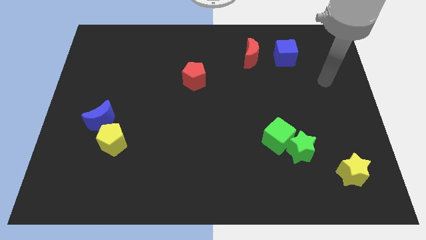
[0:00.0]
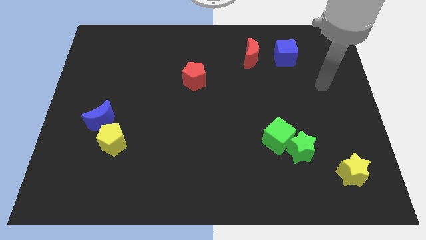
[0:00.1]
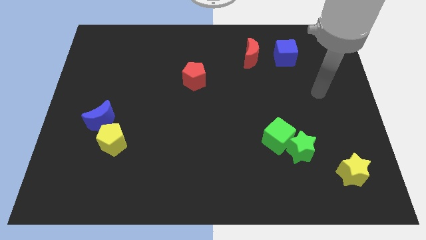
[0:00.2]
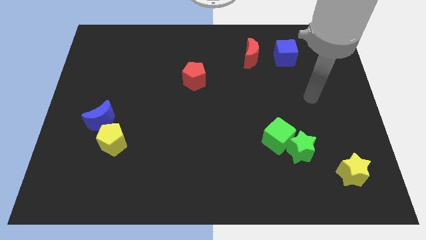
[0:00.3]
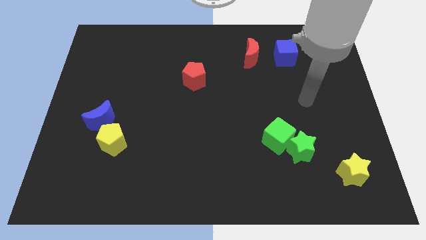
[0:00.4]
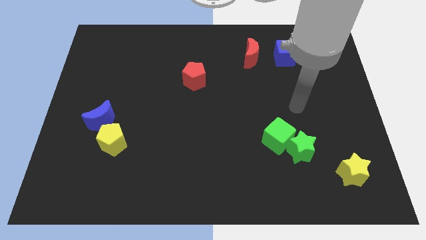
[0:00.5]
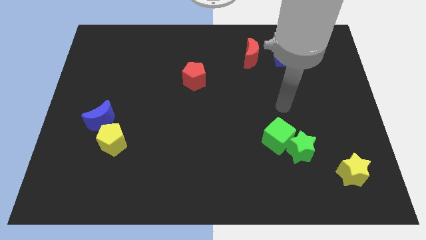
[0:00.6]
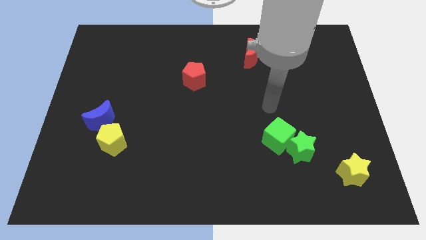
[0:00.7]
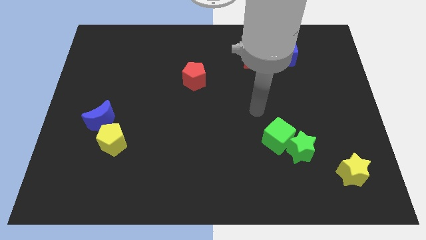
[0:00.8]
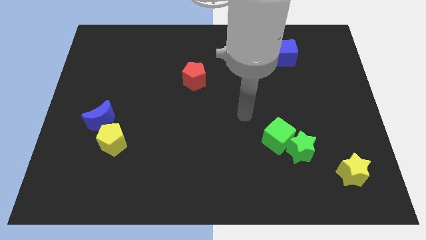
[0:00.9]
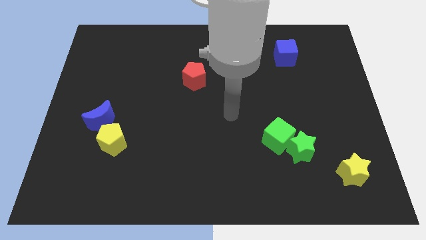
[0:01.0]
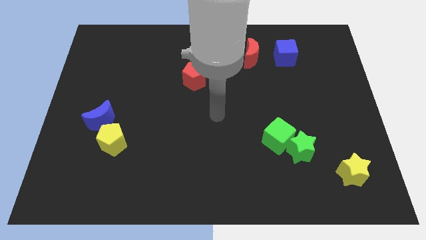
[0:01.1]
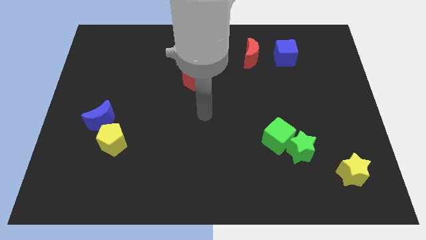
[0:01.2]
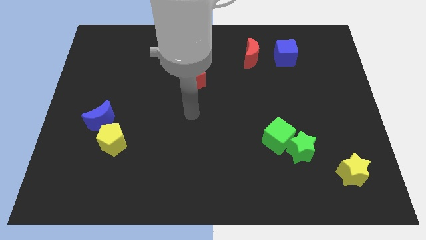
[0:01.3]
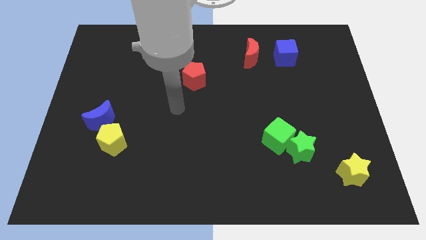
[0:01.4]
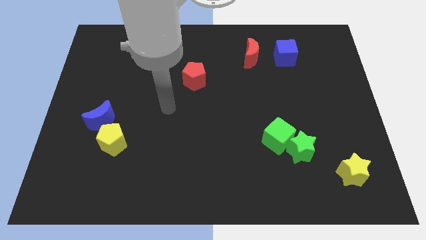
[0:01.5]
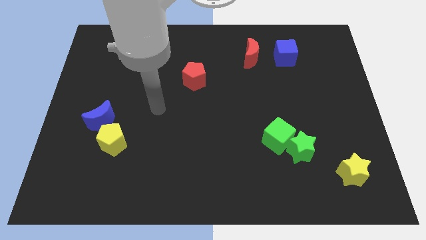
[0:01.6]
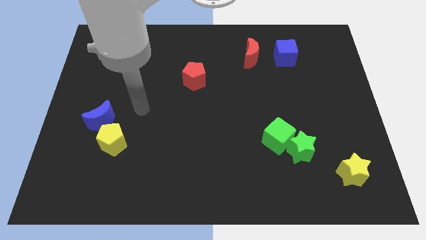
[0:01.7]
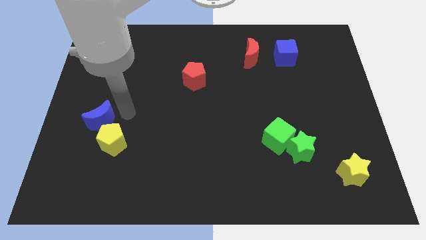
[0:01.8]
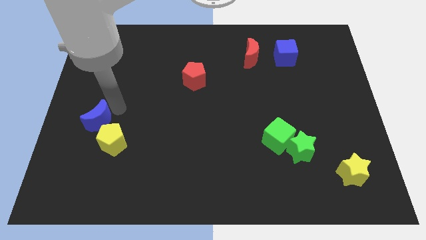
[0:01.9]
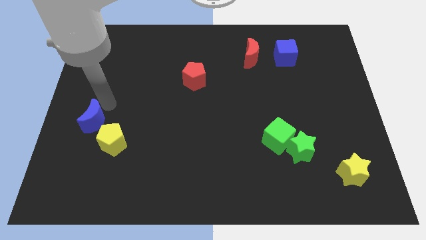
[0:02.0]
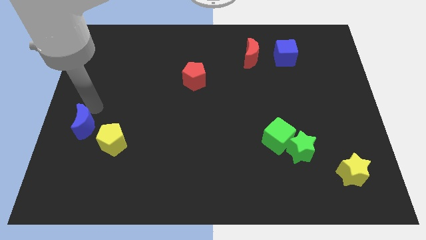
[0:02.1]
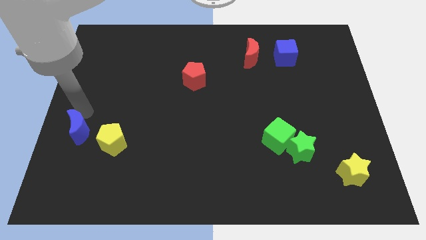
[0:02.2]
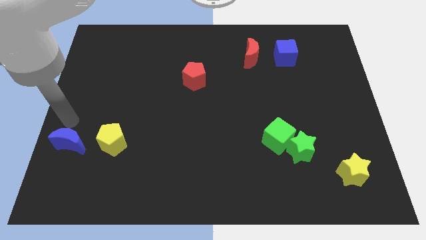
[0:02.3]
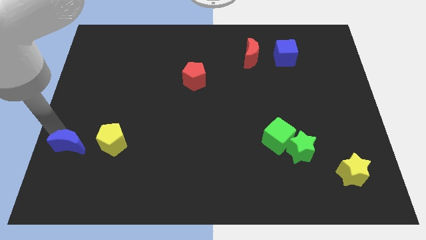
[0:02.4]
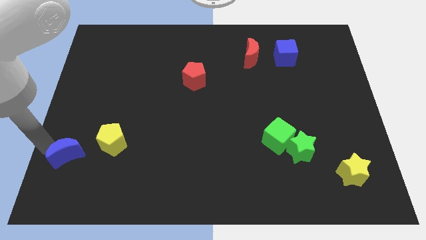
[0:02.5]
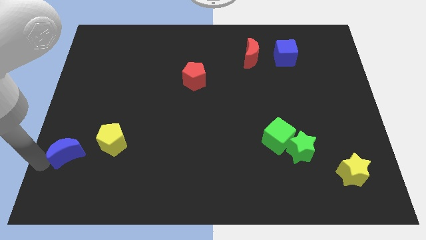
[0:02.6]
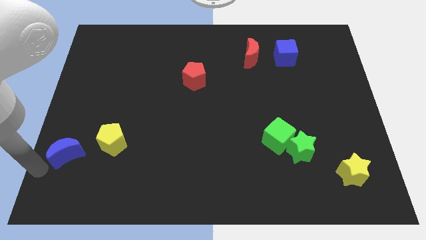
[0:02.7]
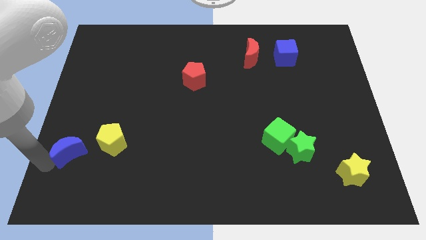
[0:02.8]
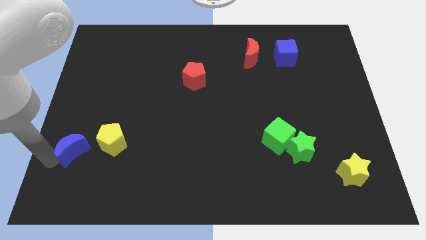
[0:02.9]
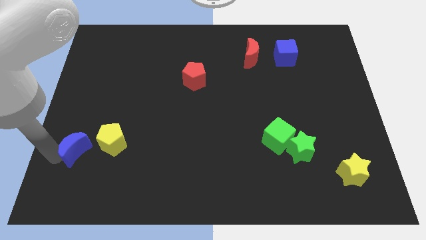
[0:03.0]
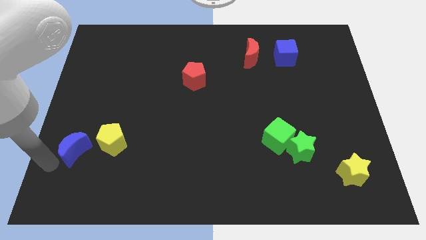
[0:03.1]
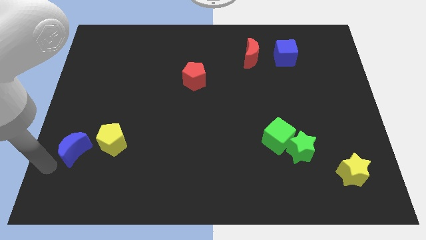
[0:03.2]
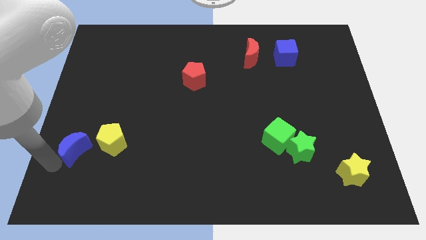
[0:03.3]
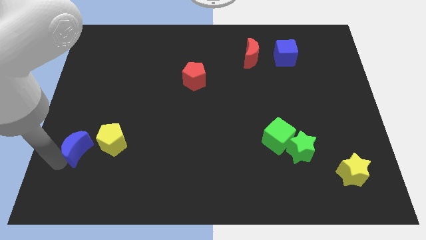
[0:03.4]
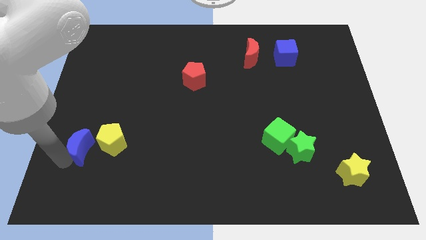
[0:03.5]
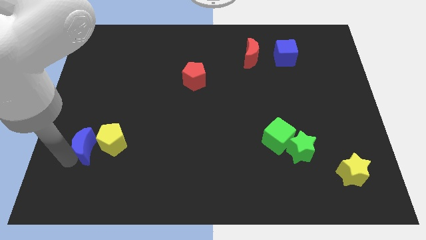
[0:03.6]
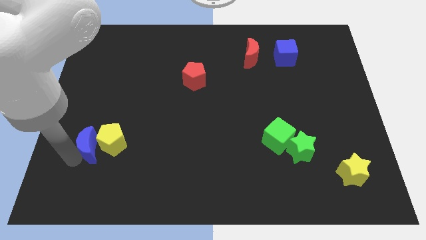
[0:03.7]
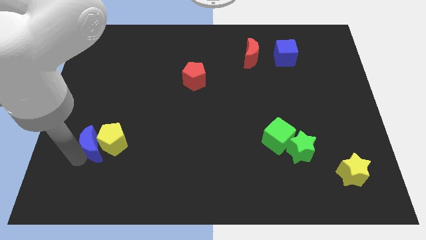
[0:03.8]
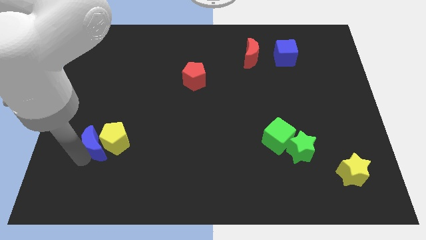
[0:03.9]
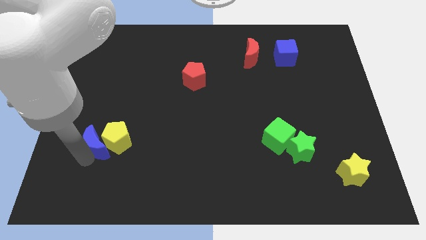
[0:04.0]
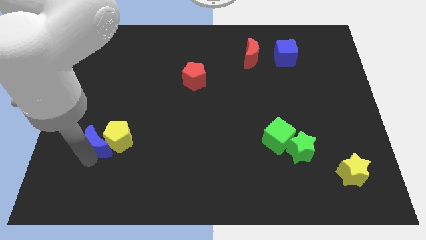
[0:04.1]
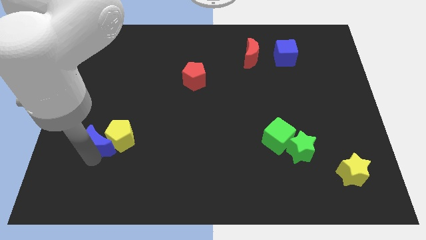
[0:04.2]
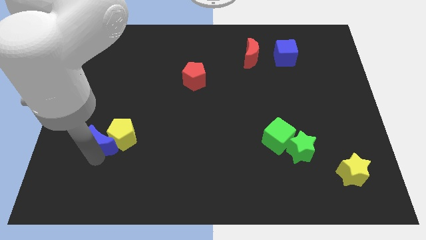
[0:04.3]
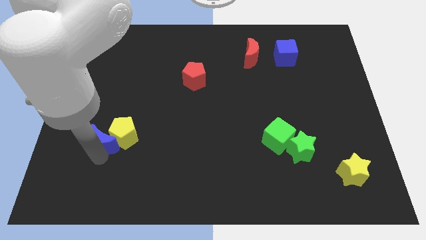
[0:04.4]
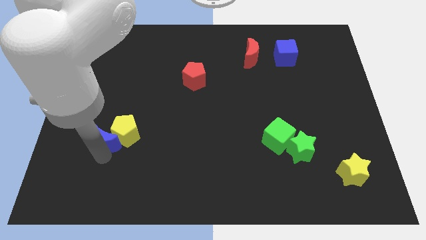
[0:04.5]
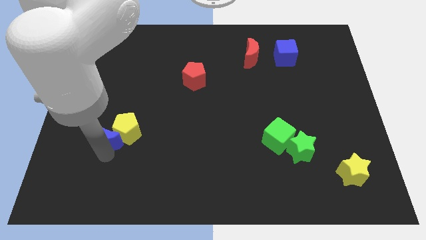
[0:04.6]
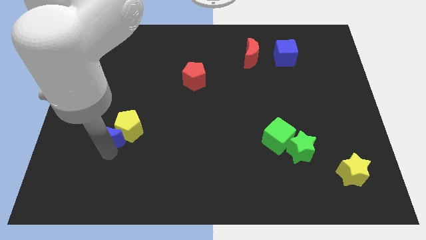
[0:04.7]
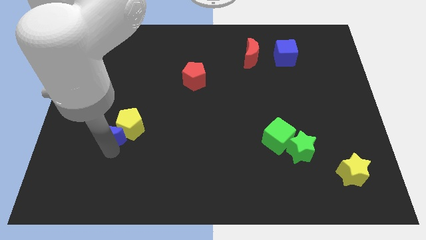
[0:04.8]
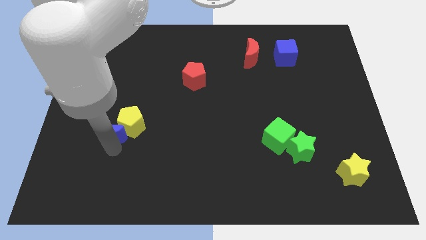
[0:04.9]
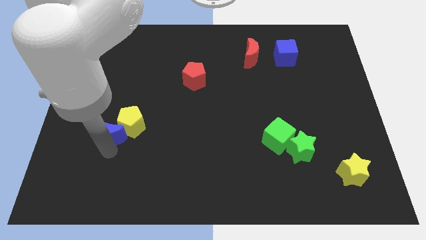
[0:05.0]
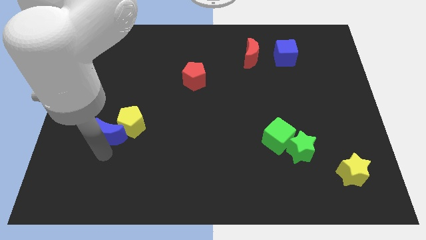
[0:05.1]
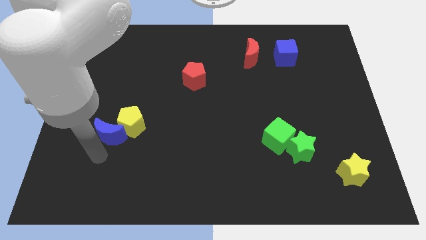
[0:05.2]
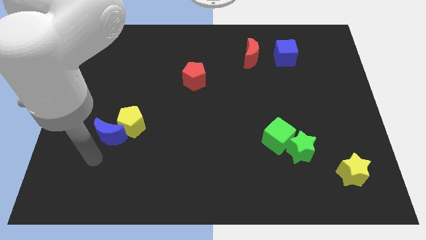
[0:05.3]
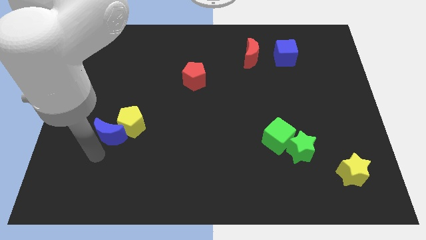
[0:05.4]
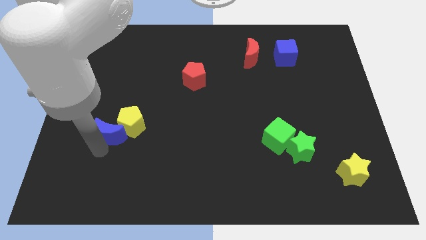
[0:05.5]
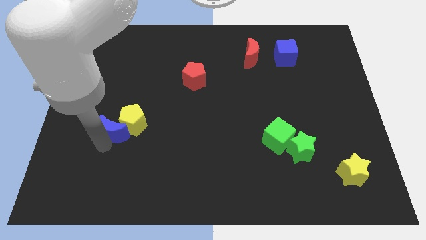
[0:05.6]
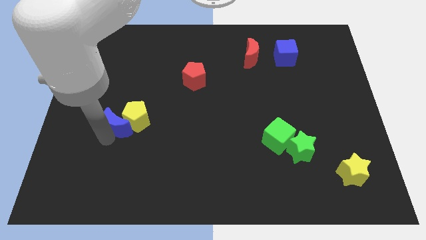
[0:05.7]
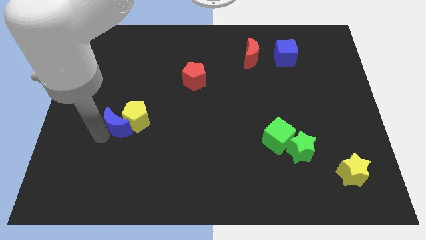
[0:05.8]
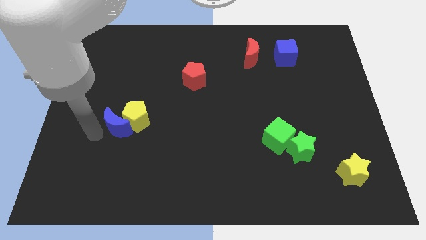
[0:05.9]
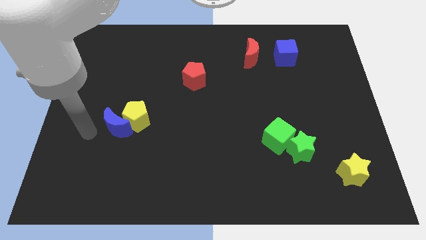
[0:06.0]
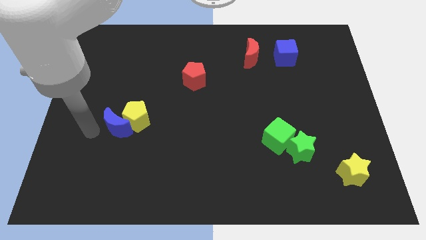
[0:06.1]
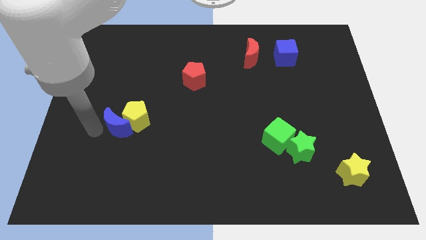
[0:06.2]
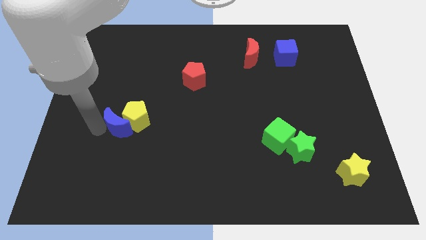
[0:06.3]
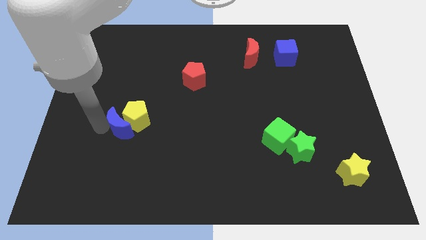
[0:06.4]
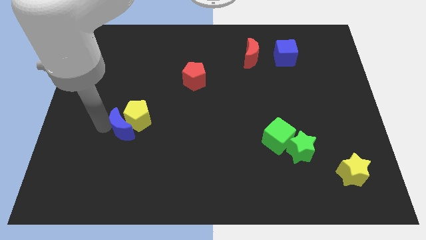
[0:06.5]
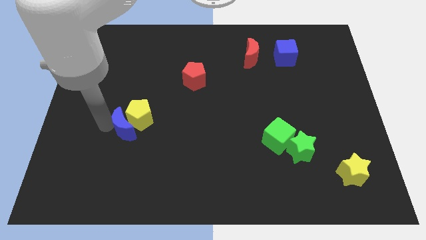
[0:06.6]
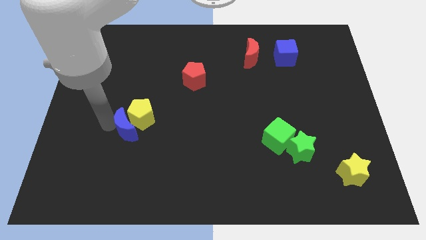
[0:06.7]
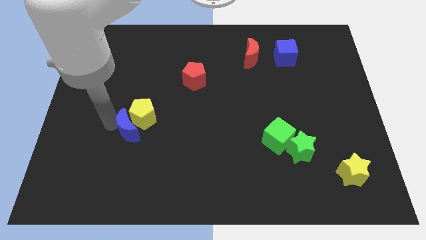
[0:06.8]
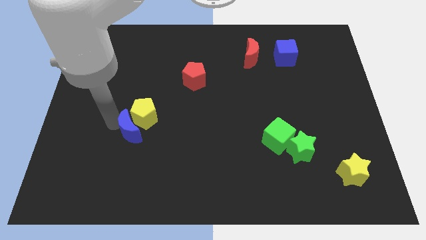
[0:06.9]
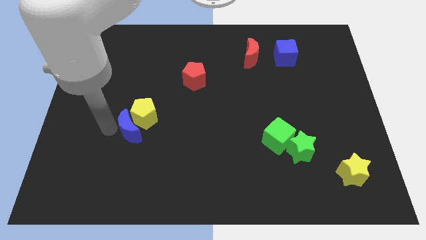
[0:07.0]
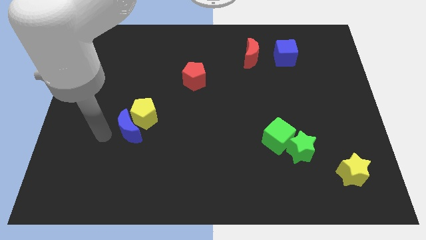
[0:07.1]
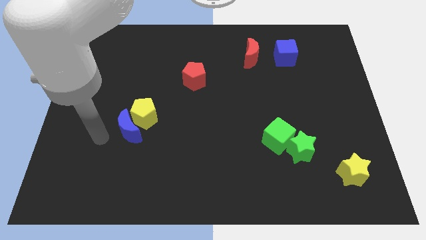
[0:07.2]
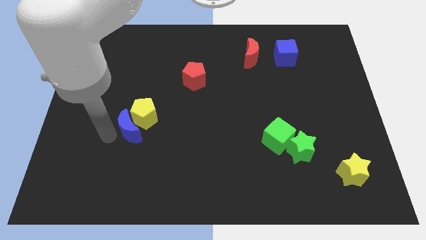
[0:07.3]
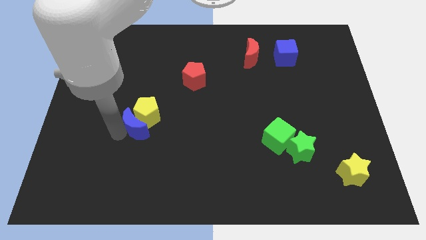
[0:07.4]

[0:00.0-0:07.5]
move the blue moon to the right somewhat

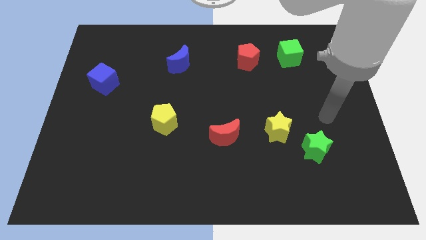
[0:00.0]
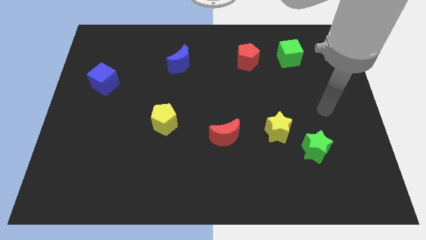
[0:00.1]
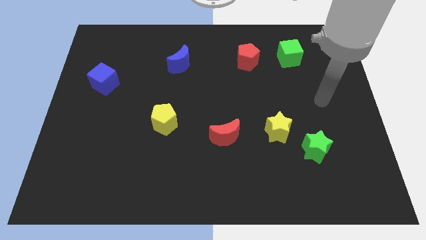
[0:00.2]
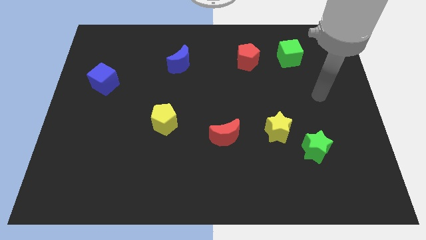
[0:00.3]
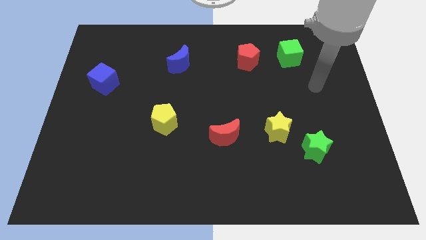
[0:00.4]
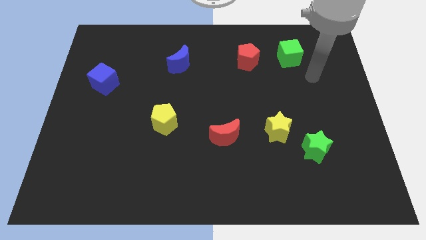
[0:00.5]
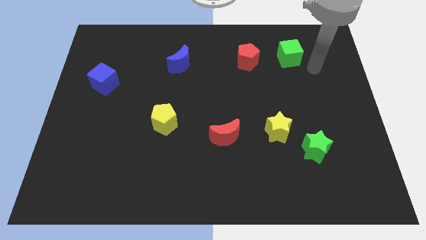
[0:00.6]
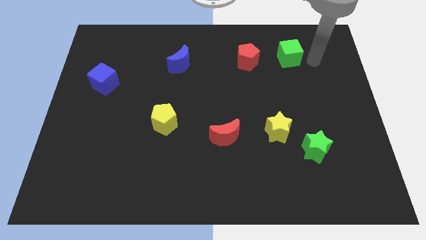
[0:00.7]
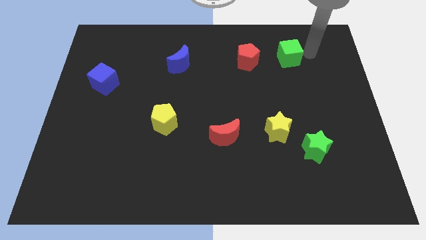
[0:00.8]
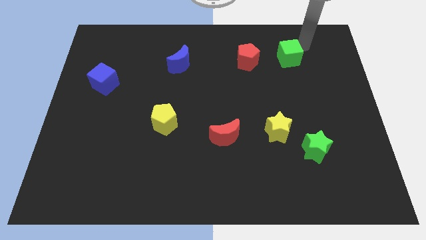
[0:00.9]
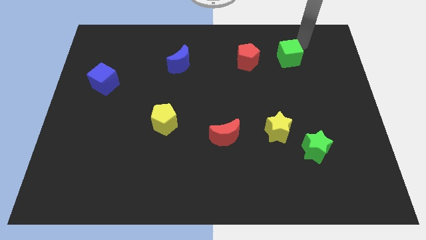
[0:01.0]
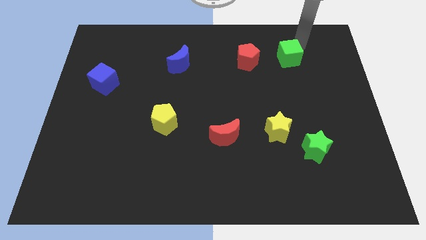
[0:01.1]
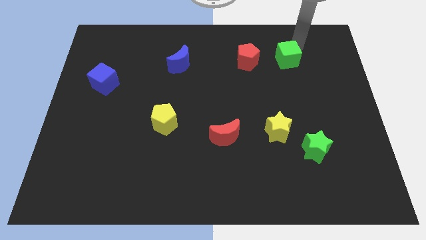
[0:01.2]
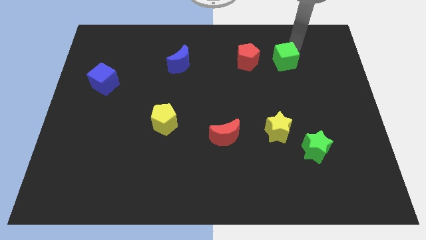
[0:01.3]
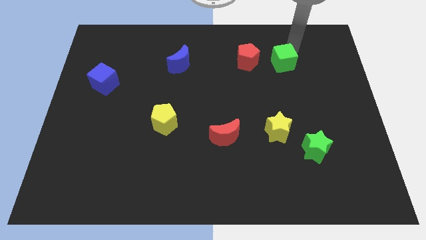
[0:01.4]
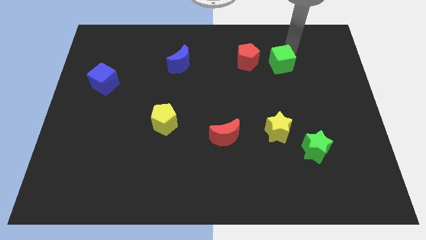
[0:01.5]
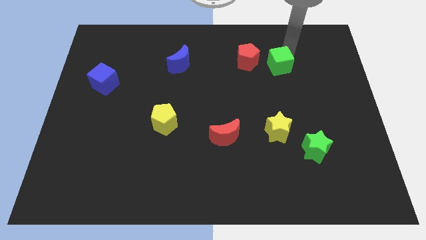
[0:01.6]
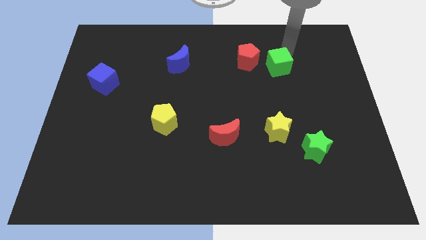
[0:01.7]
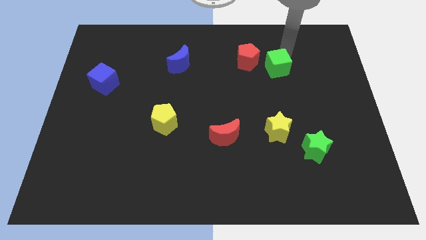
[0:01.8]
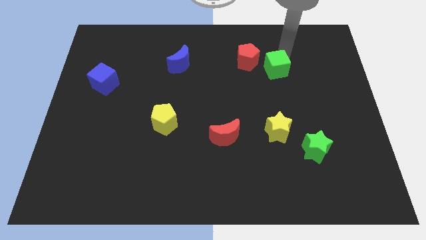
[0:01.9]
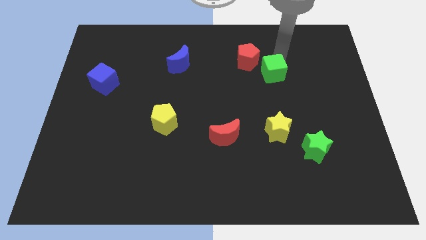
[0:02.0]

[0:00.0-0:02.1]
move the green cube a little downwards and then left
